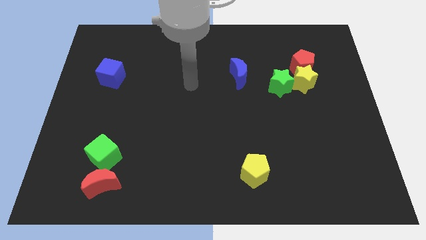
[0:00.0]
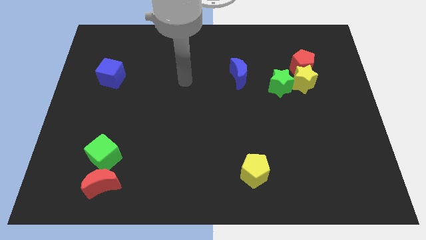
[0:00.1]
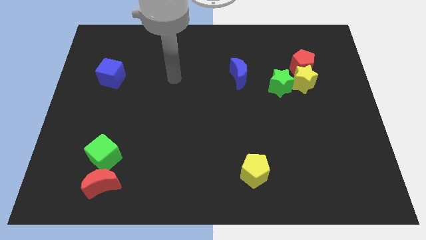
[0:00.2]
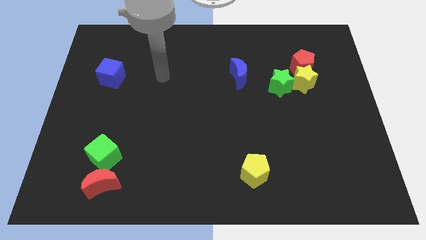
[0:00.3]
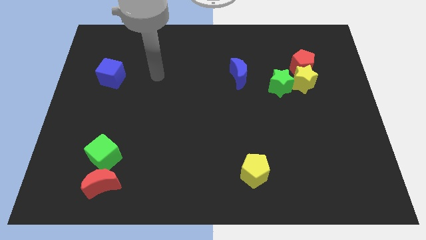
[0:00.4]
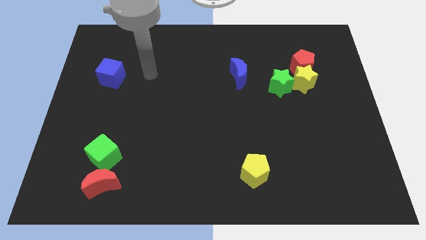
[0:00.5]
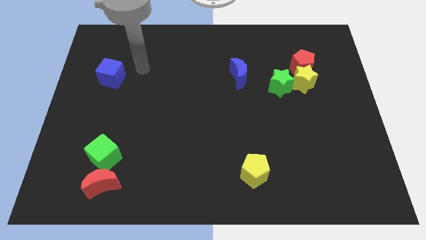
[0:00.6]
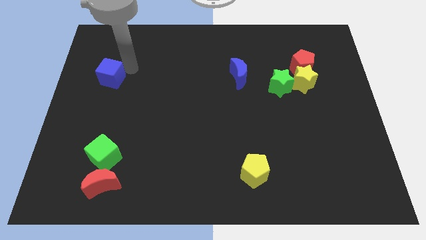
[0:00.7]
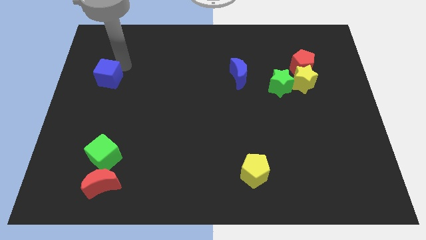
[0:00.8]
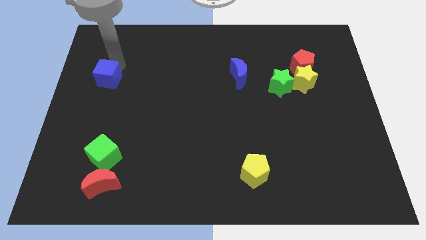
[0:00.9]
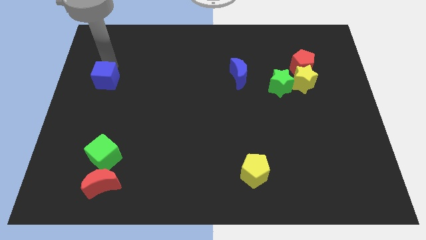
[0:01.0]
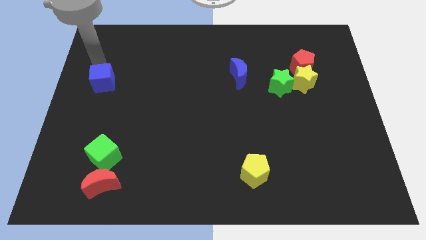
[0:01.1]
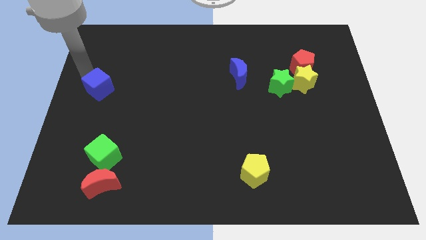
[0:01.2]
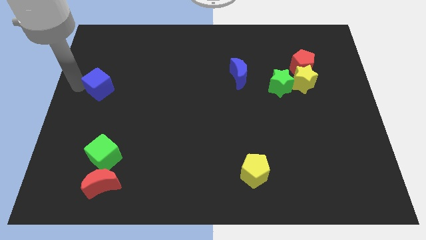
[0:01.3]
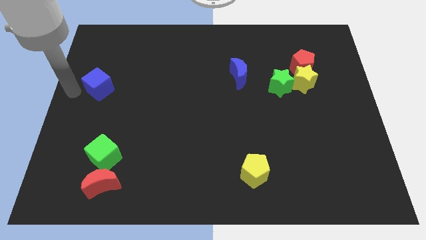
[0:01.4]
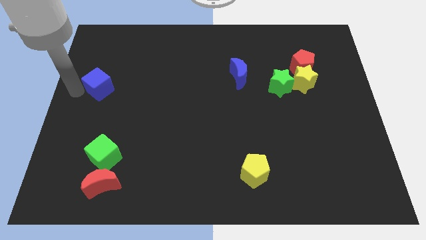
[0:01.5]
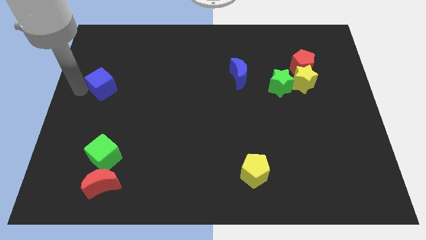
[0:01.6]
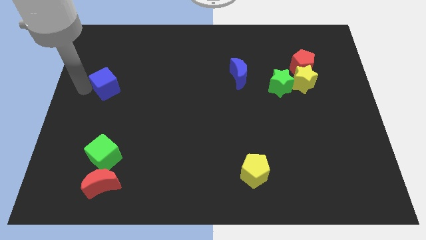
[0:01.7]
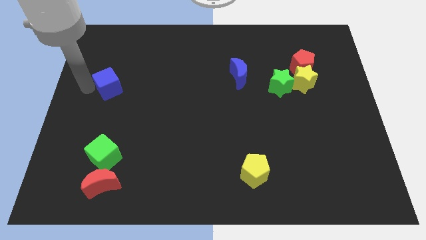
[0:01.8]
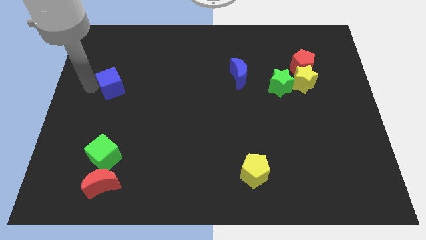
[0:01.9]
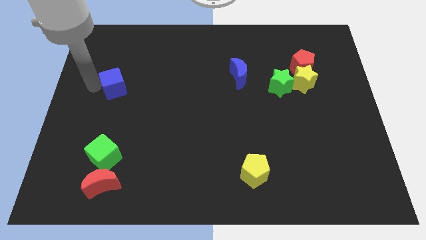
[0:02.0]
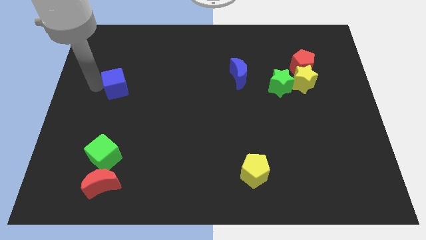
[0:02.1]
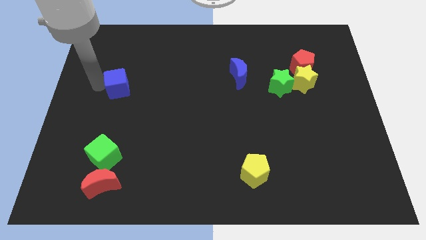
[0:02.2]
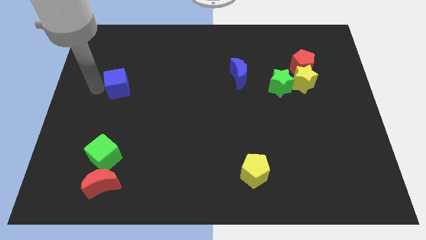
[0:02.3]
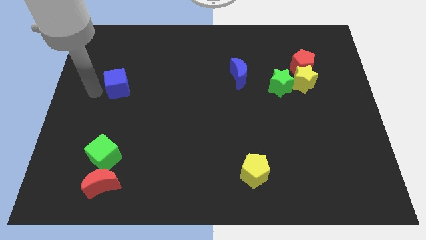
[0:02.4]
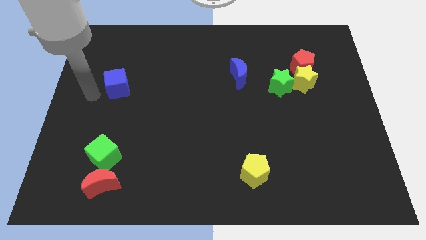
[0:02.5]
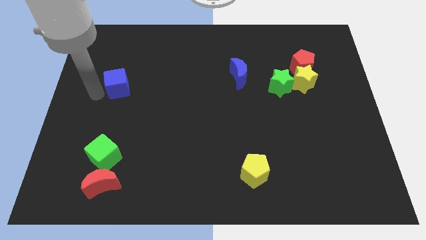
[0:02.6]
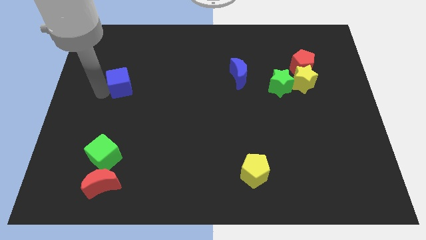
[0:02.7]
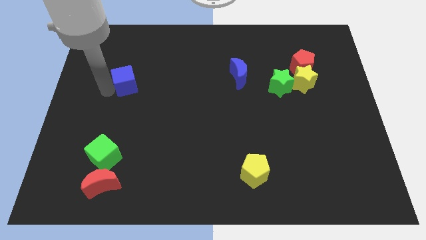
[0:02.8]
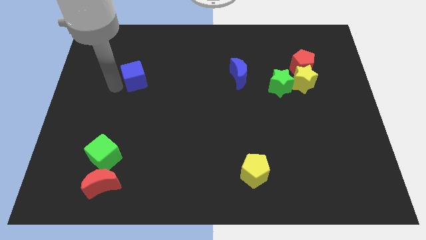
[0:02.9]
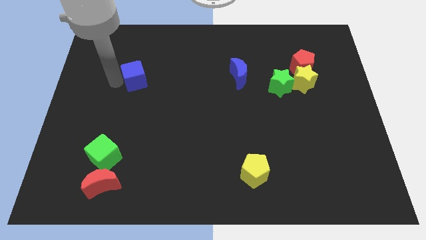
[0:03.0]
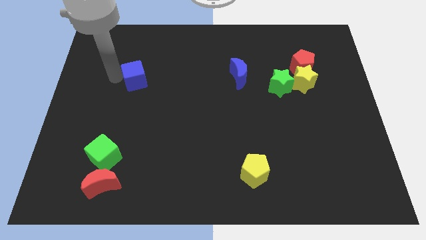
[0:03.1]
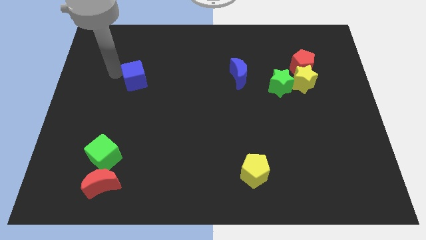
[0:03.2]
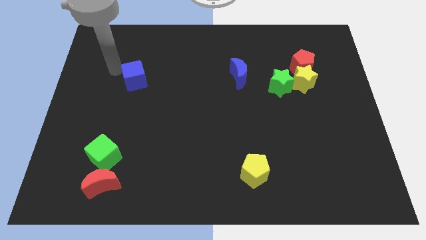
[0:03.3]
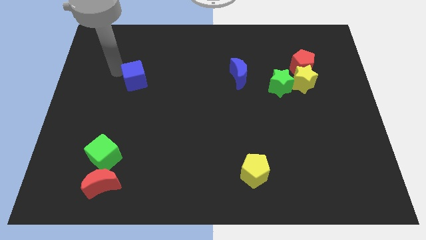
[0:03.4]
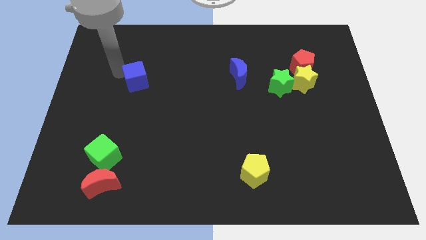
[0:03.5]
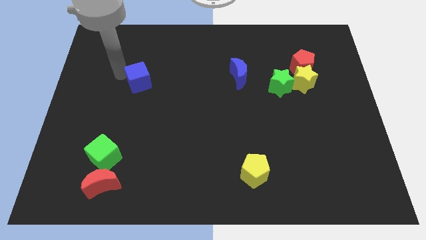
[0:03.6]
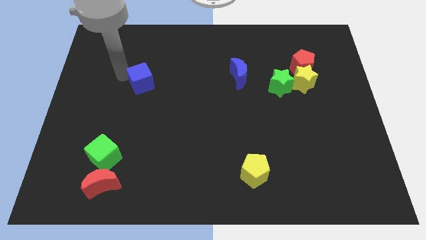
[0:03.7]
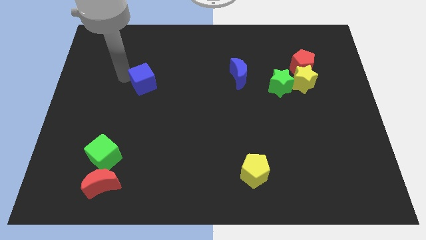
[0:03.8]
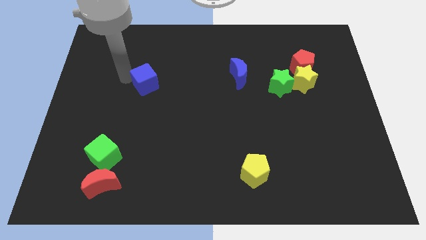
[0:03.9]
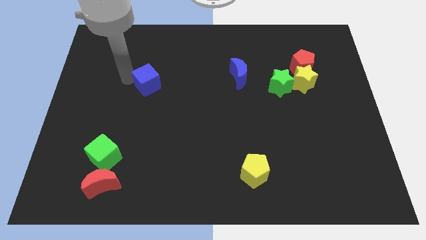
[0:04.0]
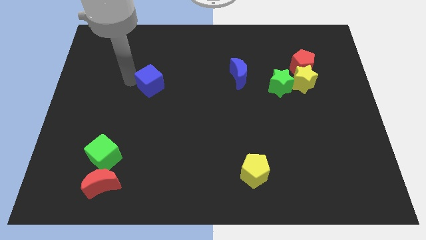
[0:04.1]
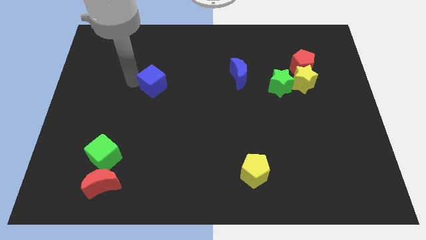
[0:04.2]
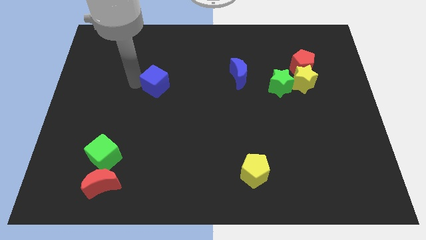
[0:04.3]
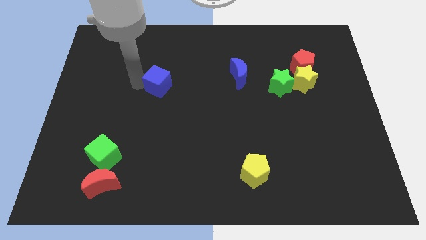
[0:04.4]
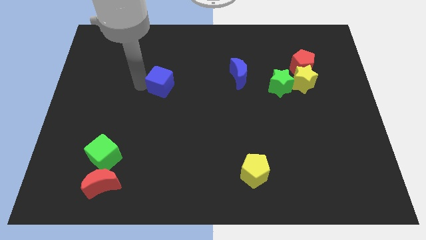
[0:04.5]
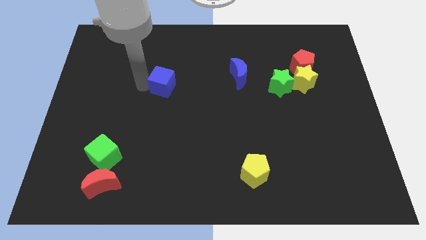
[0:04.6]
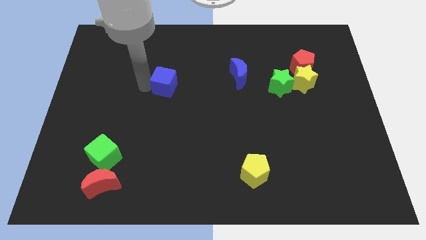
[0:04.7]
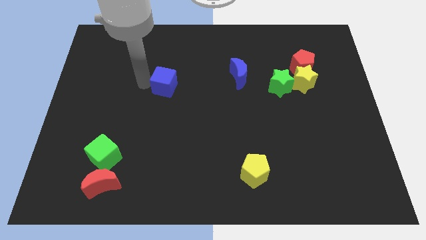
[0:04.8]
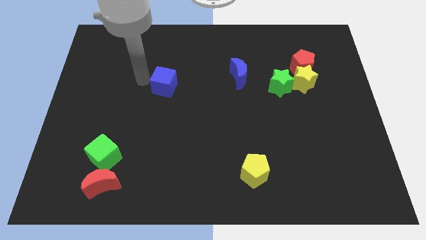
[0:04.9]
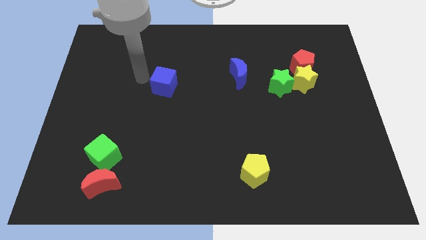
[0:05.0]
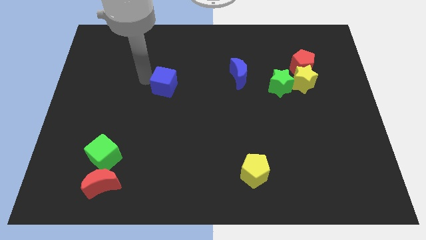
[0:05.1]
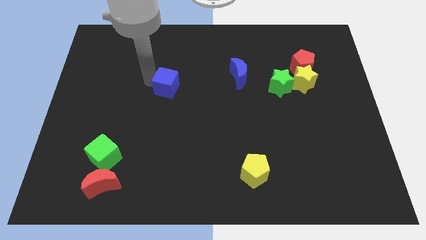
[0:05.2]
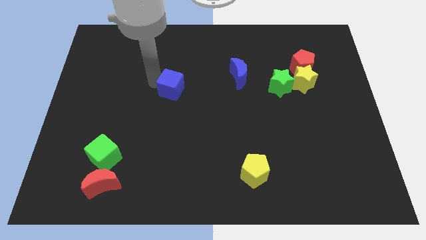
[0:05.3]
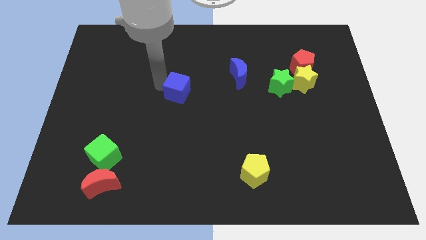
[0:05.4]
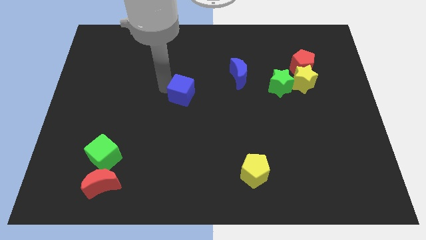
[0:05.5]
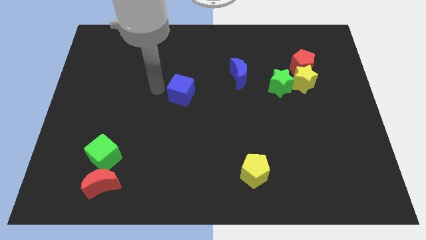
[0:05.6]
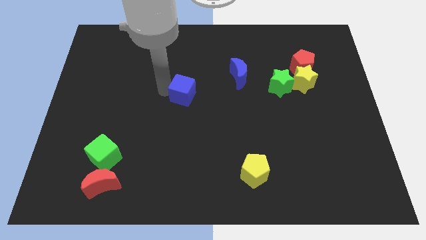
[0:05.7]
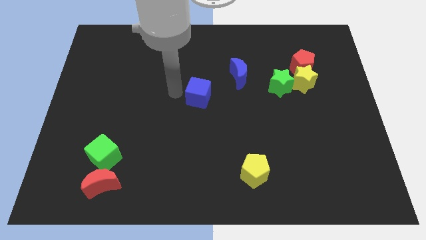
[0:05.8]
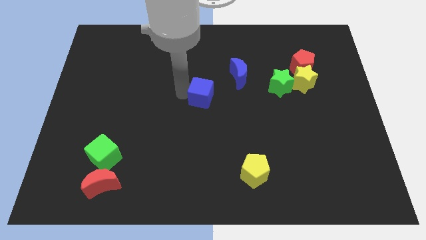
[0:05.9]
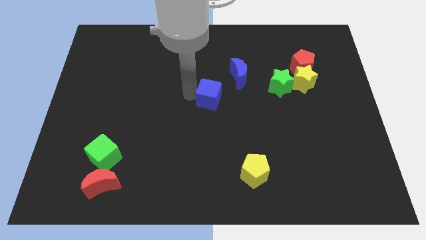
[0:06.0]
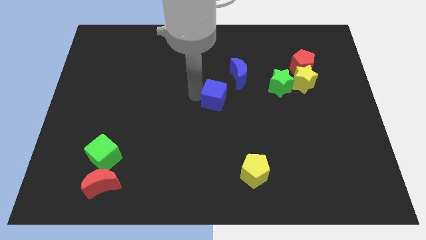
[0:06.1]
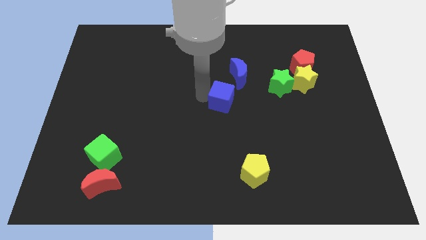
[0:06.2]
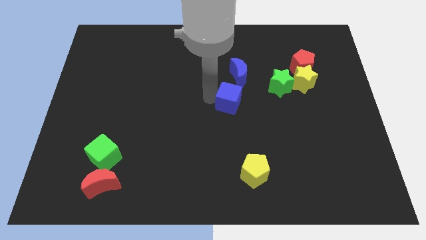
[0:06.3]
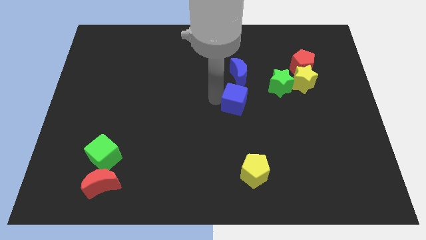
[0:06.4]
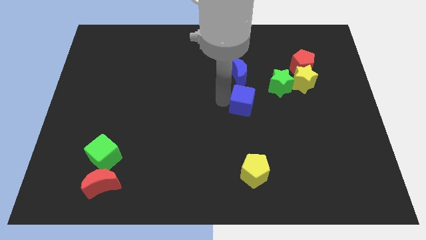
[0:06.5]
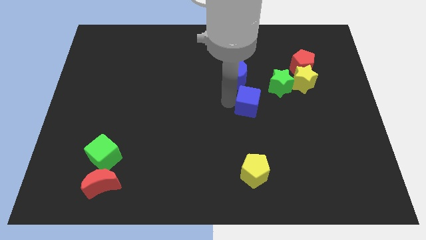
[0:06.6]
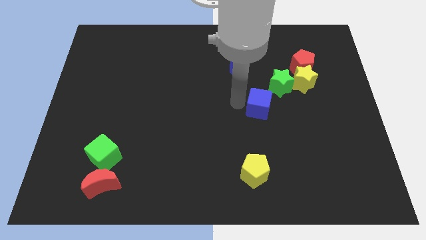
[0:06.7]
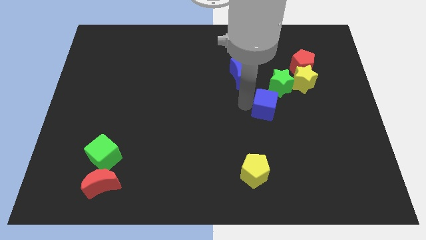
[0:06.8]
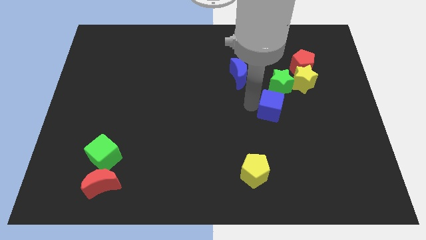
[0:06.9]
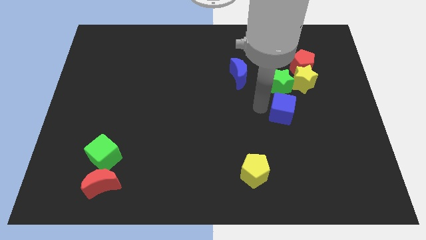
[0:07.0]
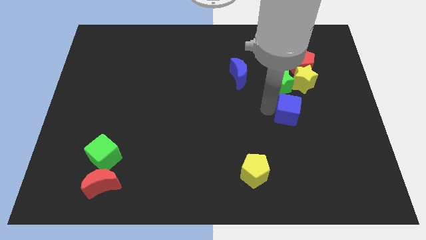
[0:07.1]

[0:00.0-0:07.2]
put the blue cube to the bottom side of the yellow star

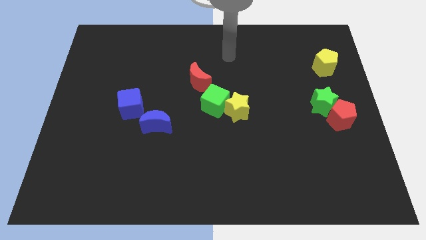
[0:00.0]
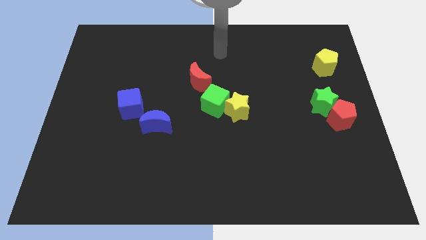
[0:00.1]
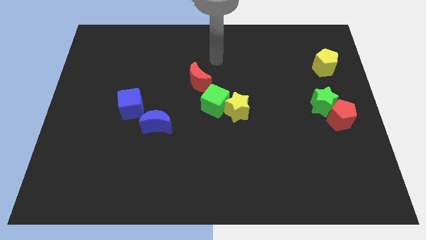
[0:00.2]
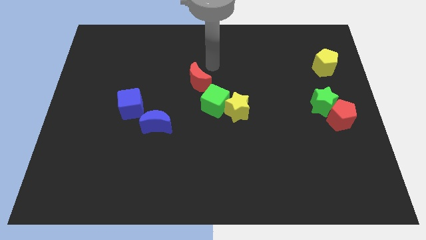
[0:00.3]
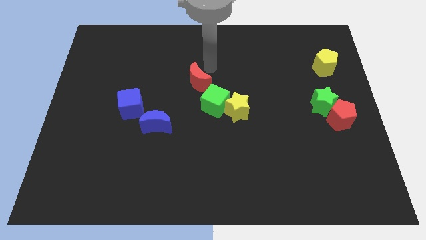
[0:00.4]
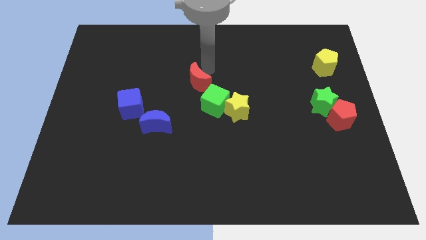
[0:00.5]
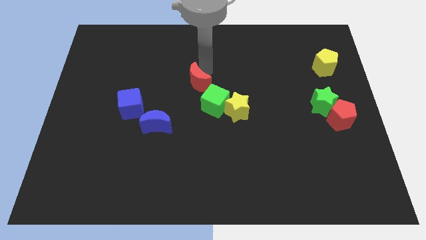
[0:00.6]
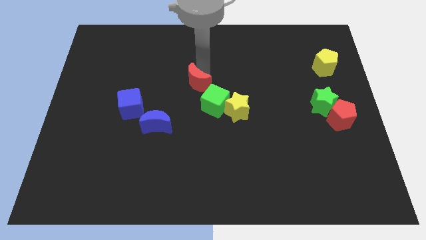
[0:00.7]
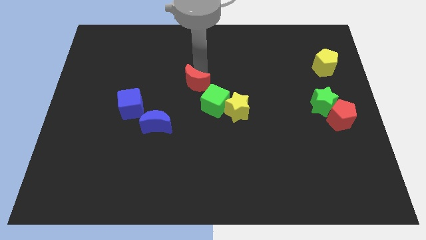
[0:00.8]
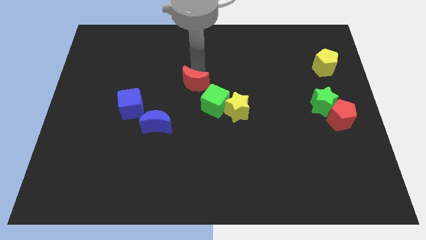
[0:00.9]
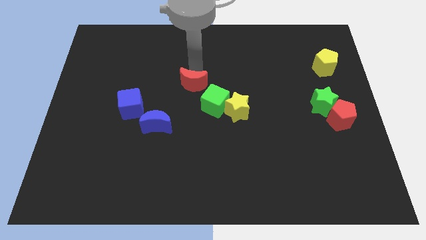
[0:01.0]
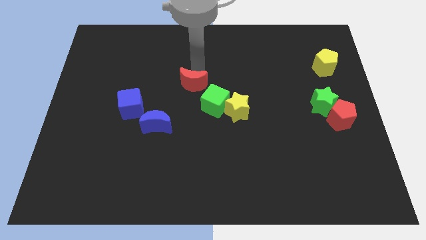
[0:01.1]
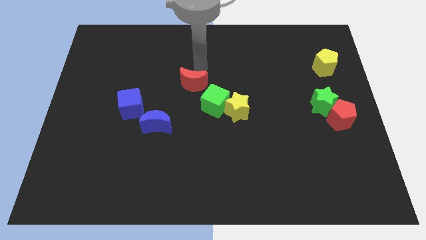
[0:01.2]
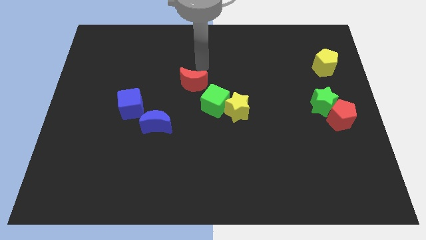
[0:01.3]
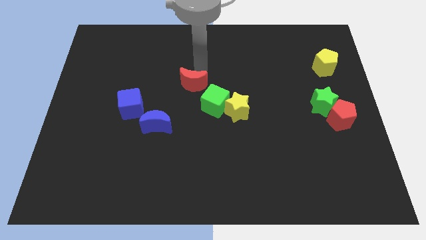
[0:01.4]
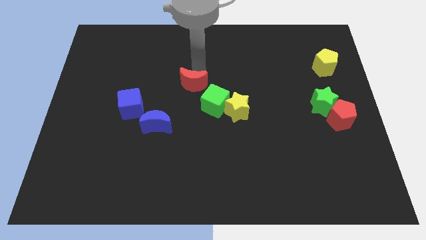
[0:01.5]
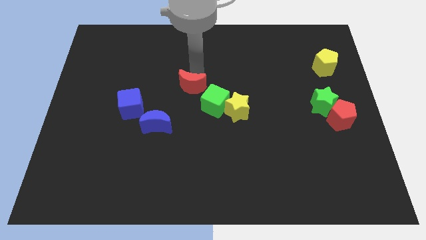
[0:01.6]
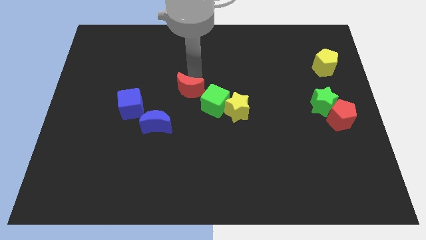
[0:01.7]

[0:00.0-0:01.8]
put the red moon to the left of the green cube
